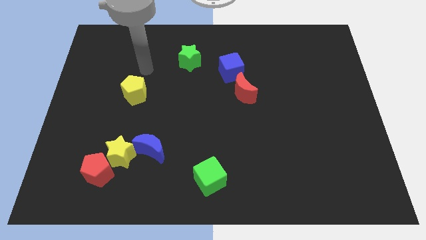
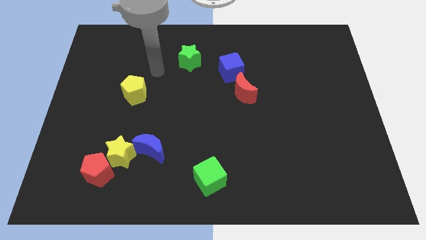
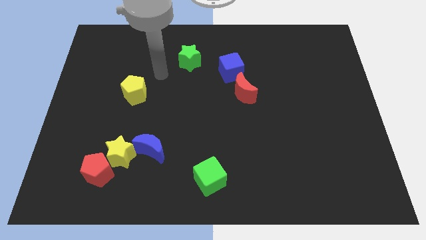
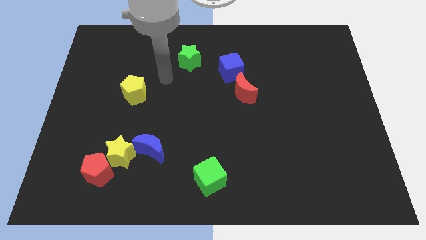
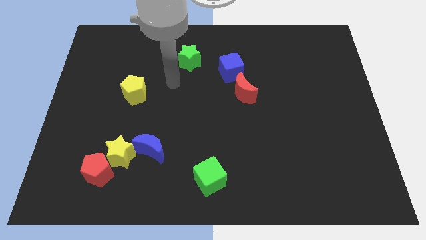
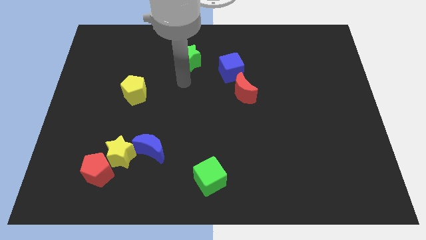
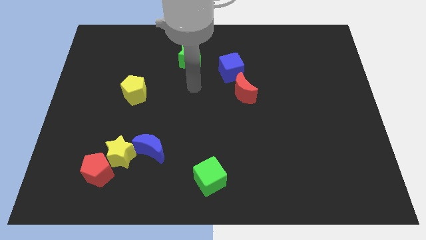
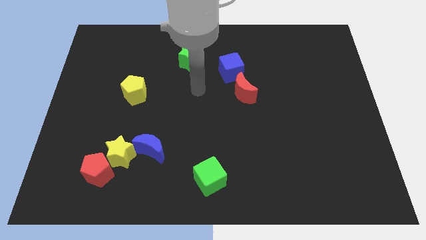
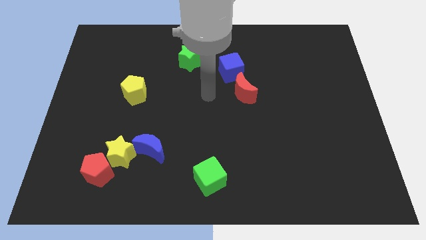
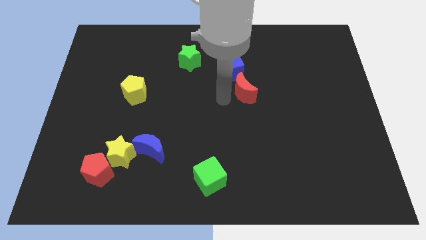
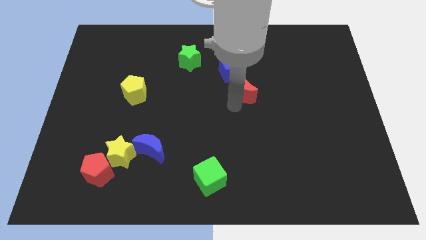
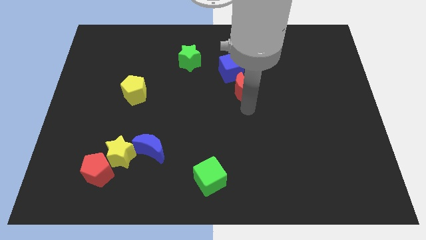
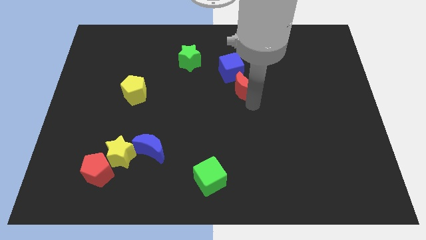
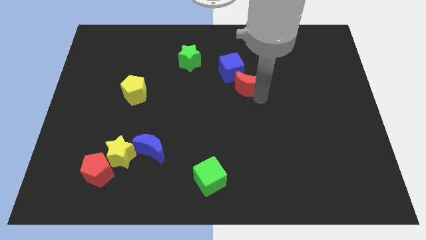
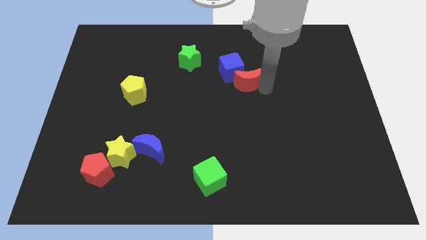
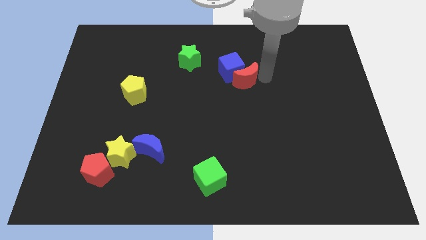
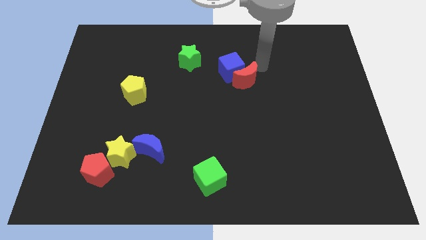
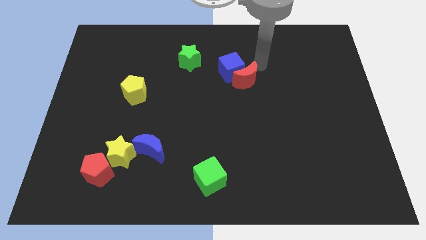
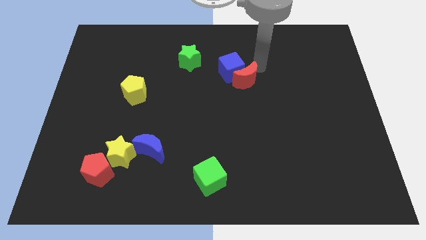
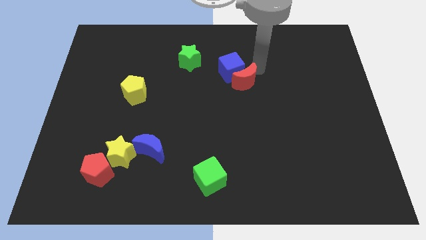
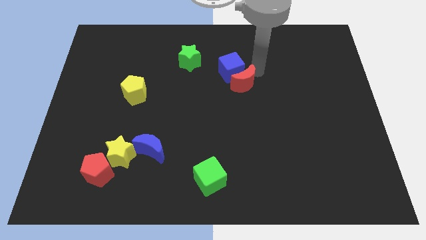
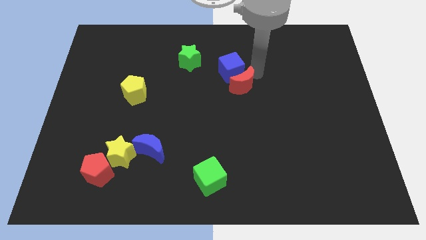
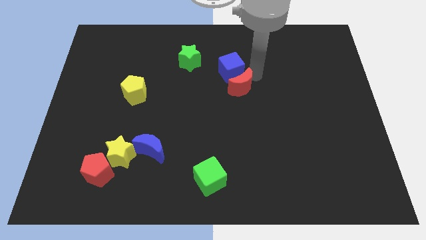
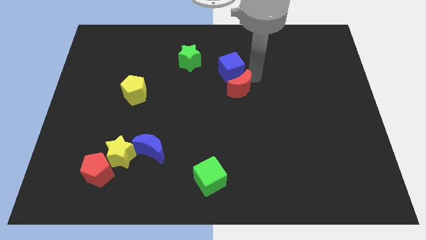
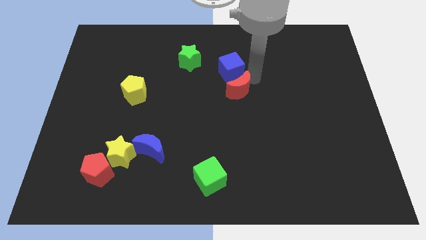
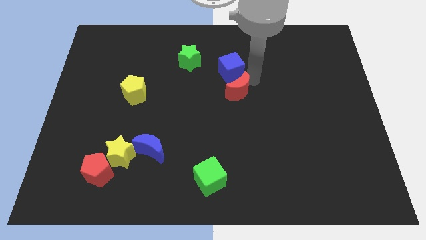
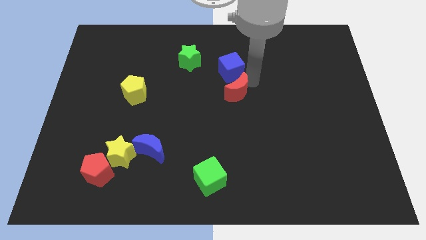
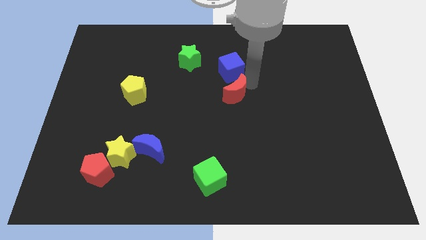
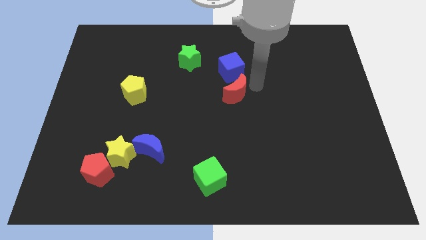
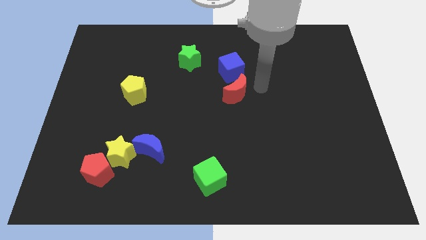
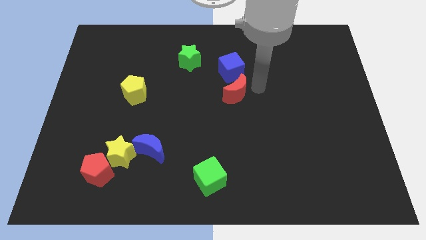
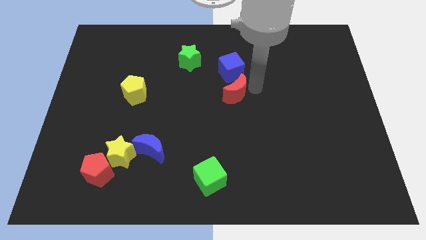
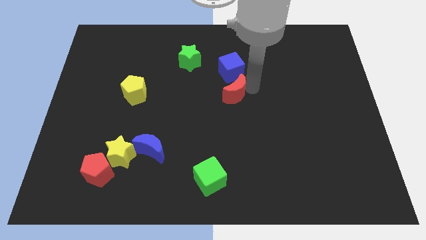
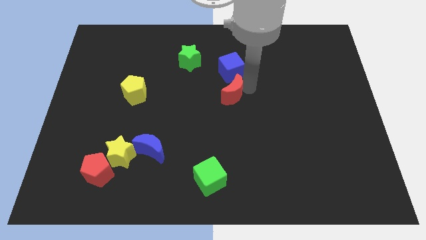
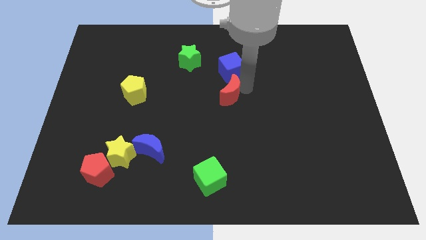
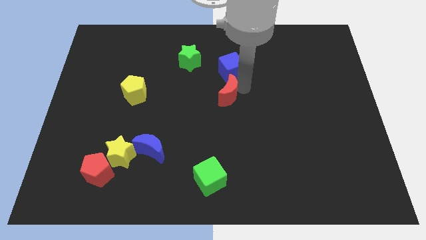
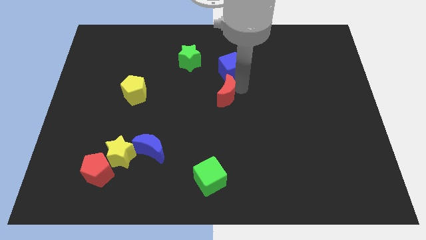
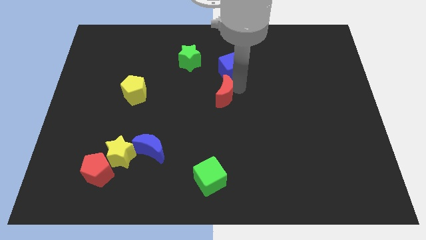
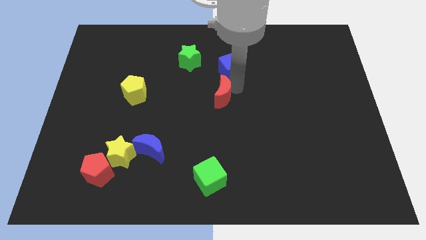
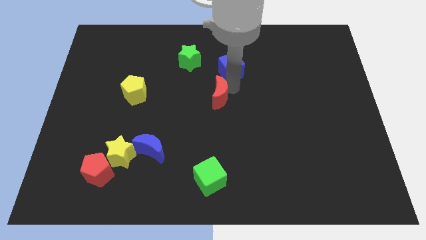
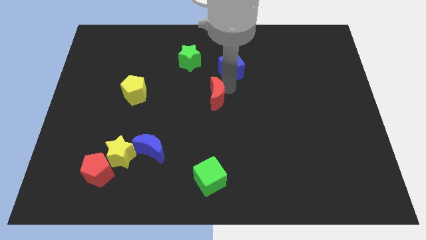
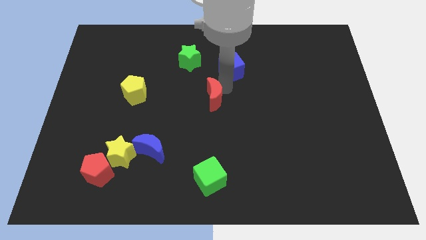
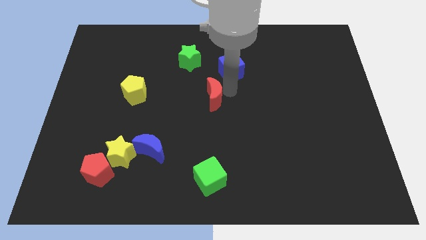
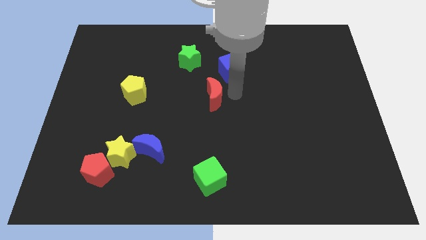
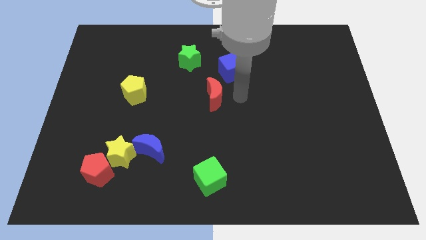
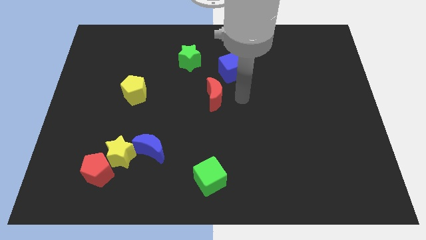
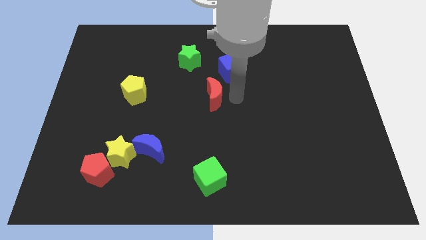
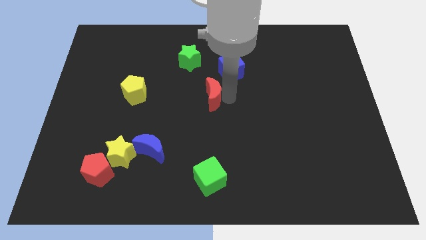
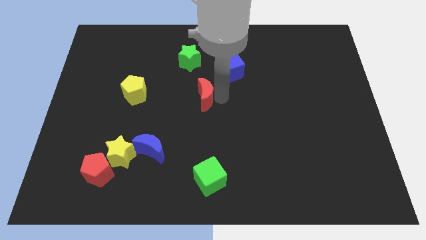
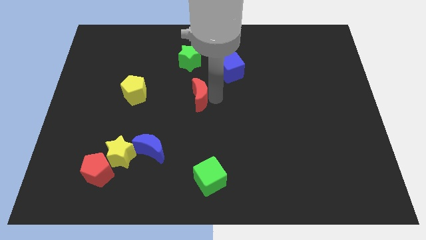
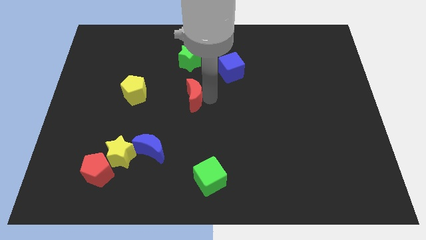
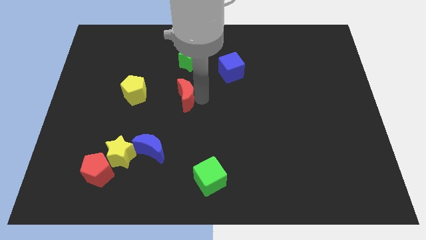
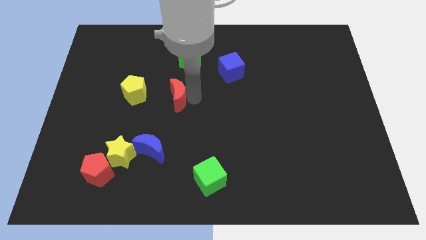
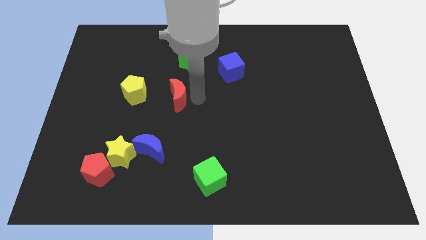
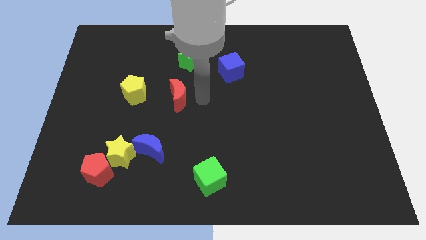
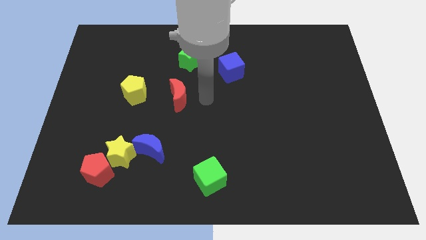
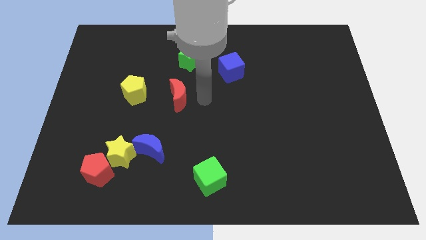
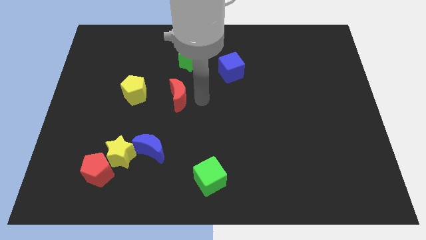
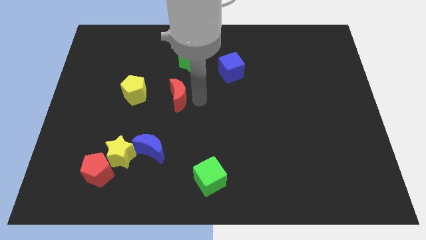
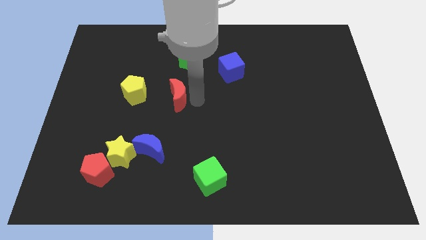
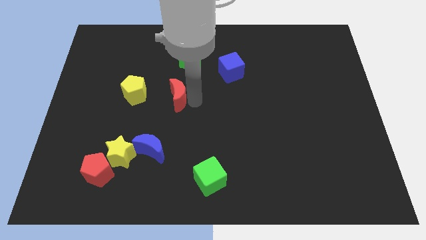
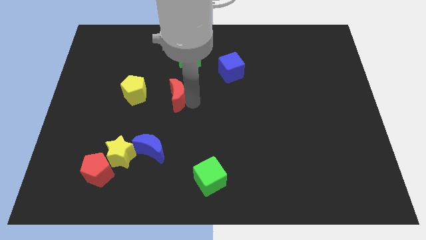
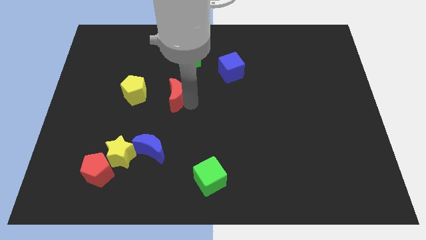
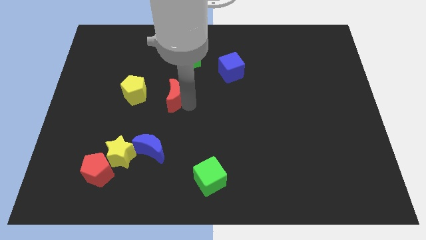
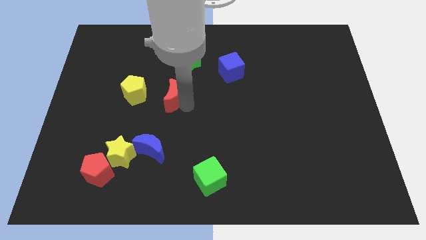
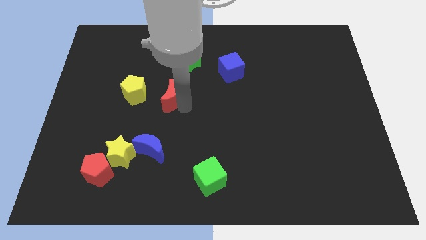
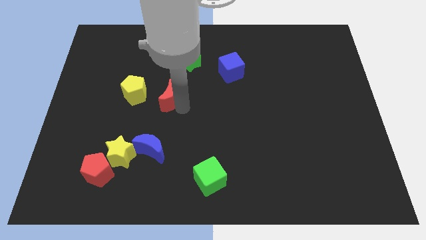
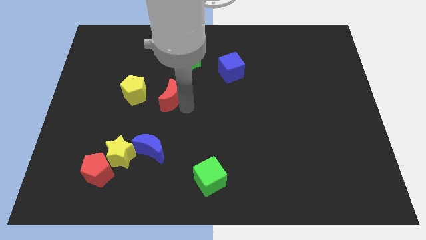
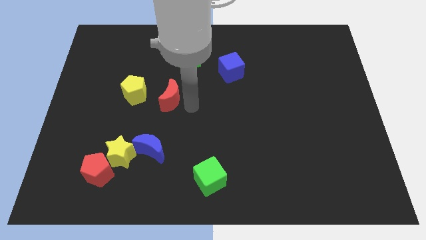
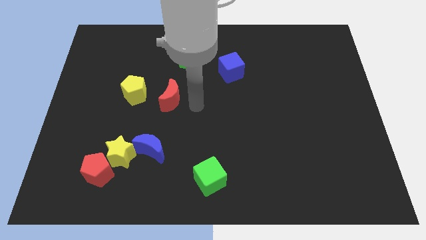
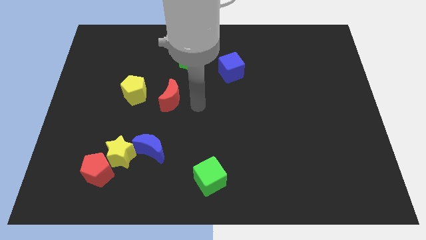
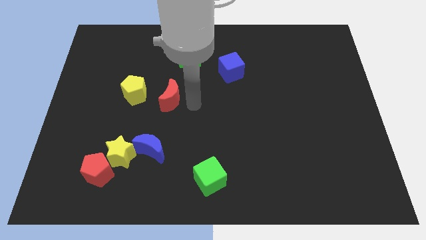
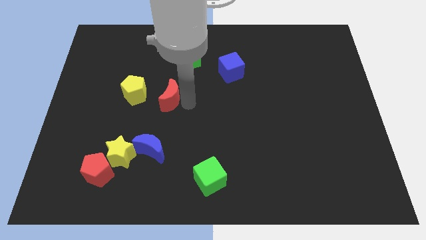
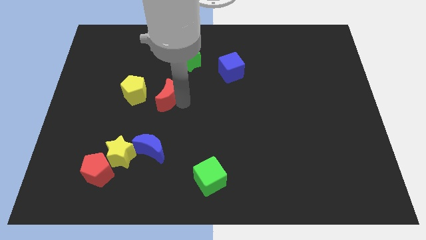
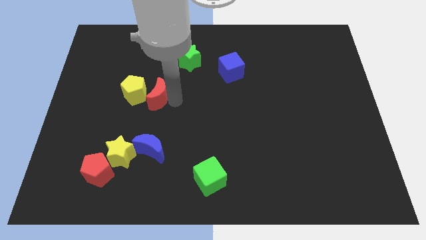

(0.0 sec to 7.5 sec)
move the red moon towards the yellow pentagon

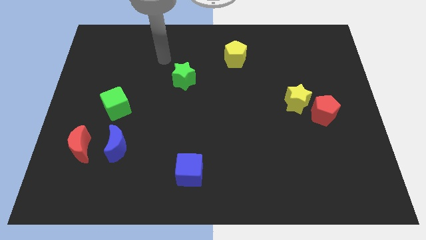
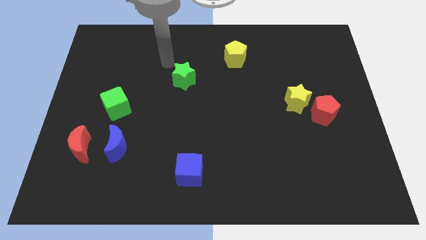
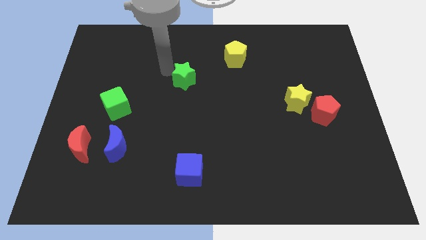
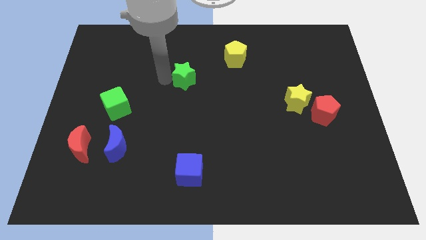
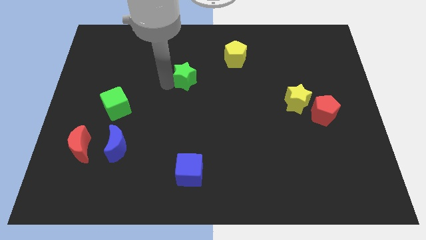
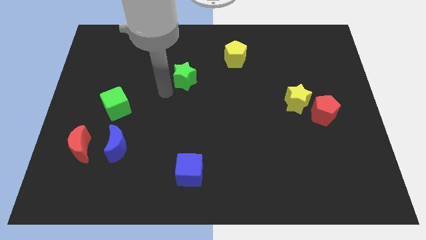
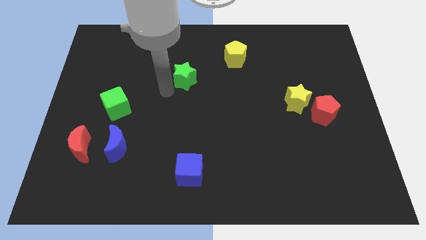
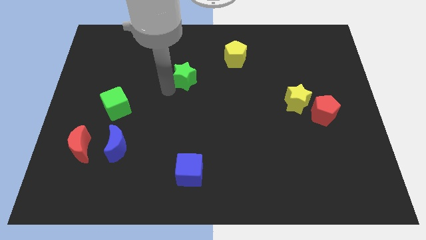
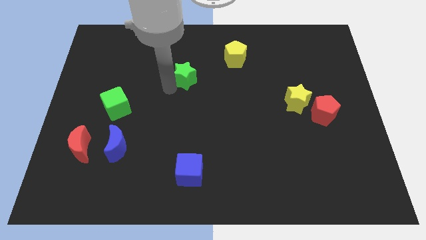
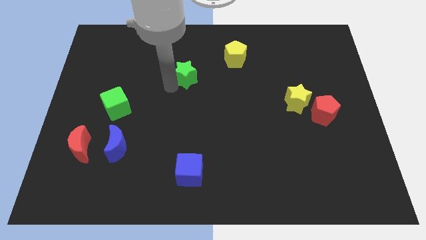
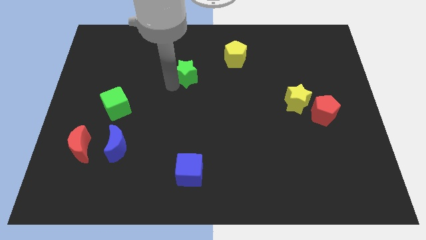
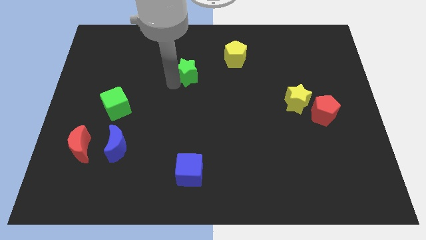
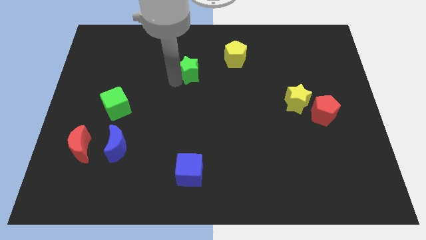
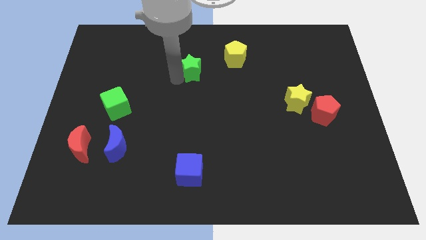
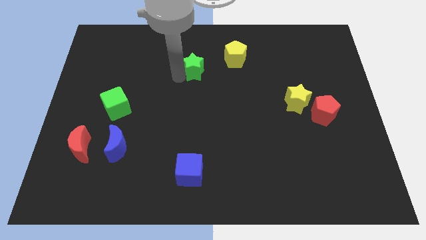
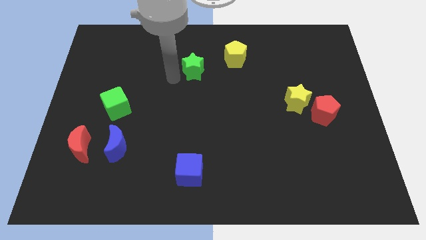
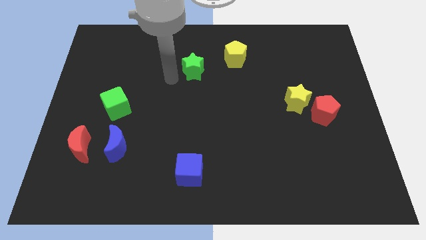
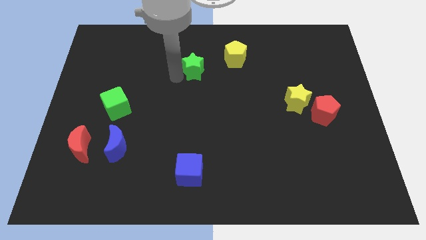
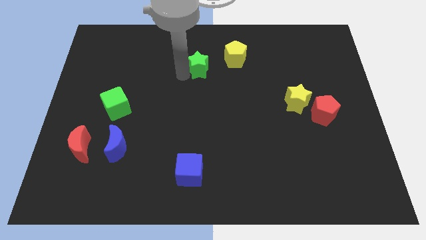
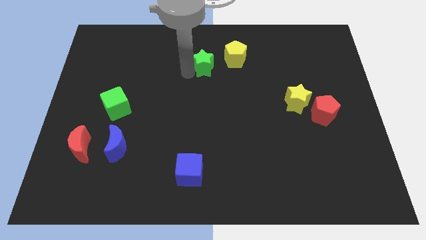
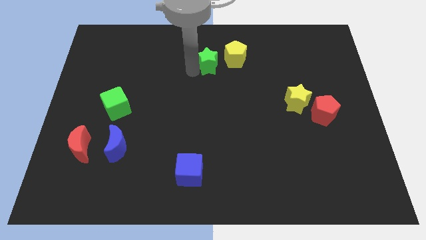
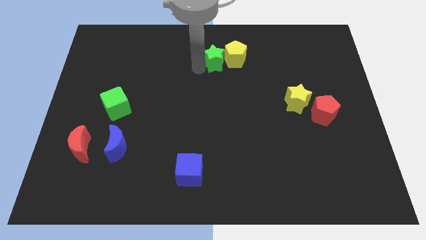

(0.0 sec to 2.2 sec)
put the green star next to the yellow pentagon
